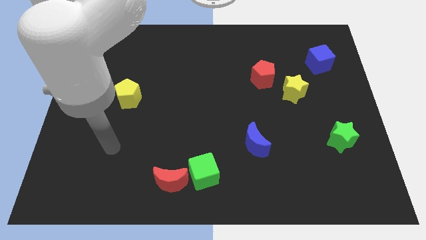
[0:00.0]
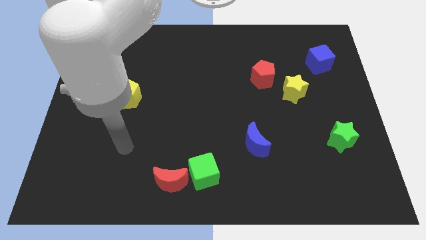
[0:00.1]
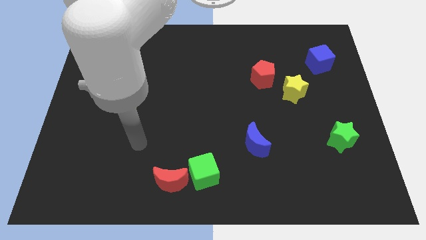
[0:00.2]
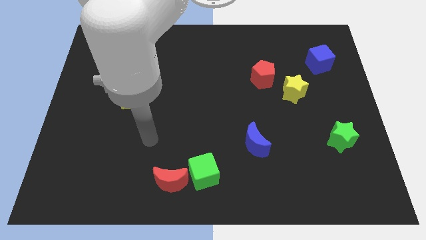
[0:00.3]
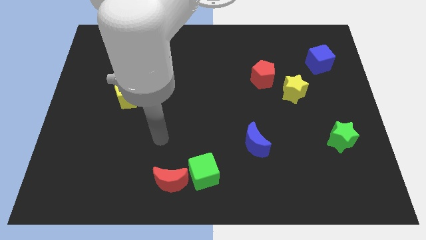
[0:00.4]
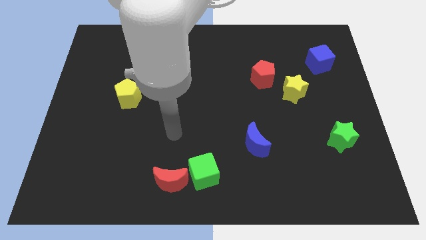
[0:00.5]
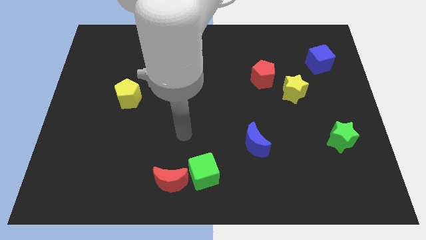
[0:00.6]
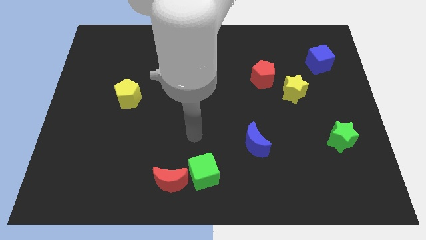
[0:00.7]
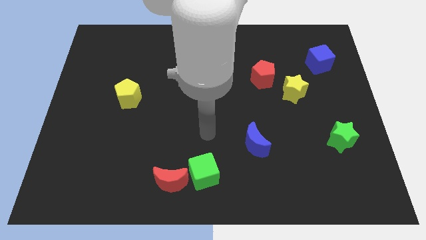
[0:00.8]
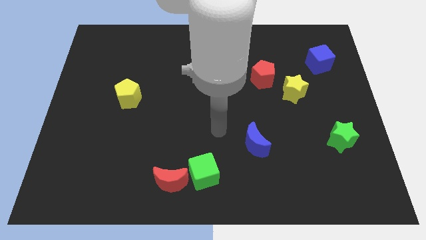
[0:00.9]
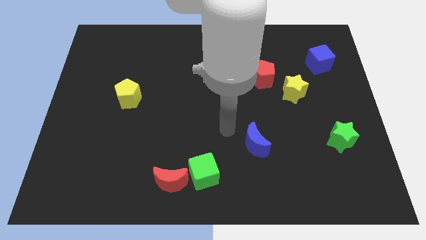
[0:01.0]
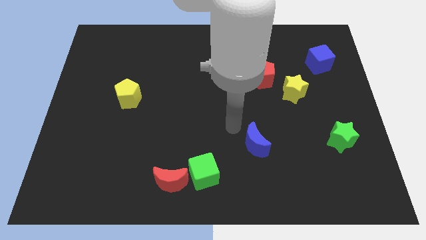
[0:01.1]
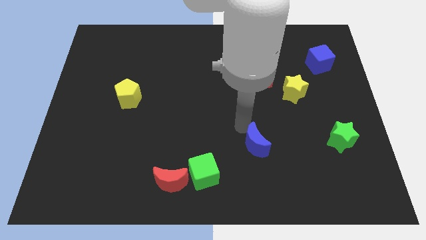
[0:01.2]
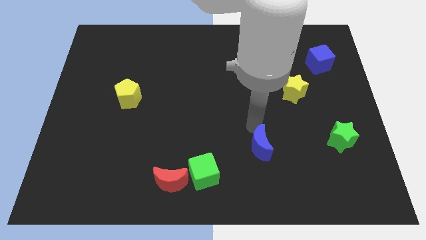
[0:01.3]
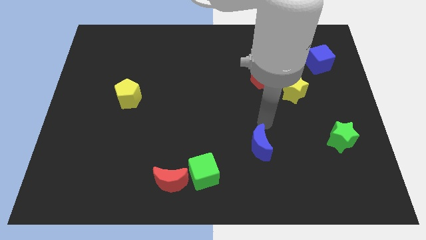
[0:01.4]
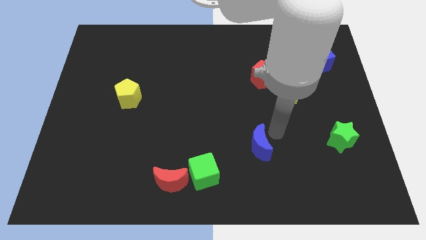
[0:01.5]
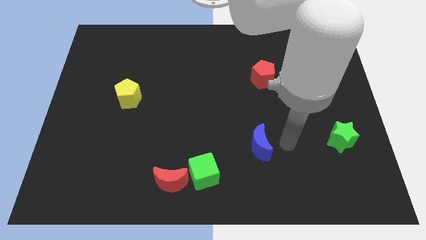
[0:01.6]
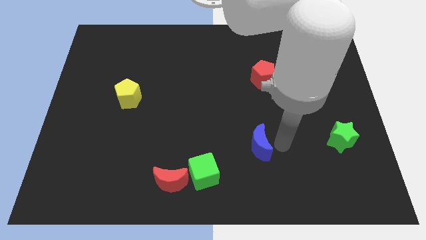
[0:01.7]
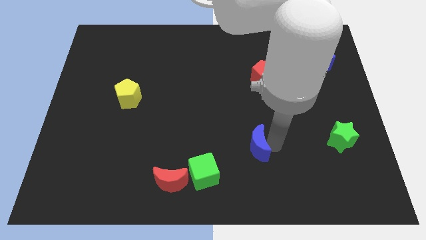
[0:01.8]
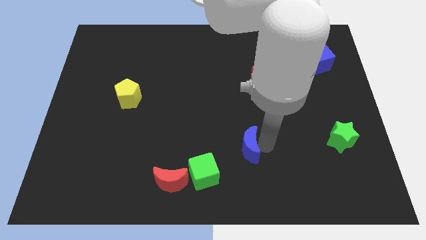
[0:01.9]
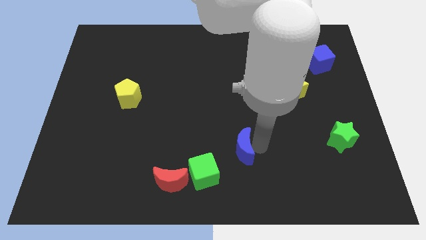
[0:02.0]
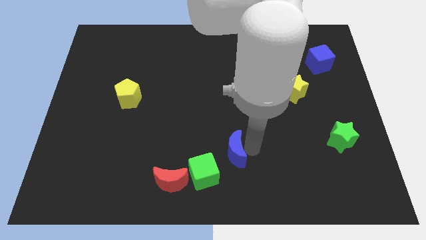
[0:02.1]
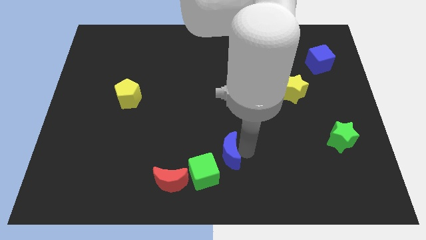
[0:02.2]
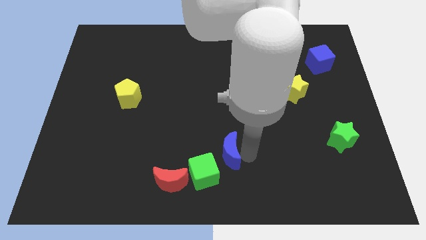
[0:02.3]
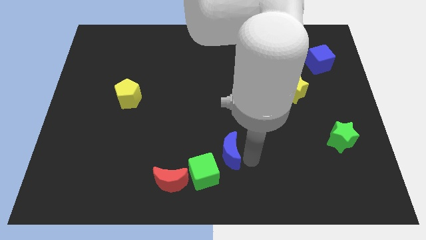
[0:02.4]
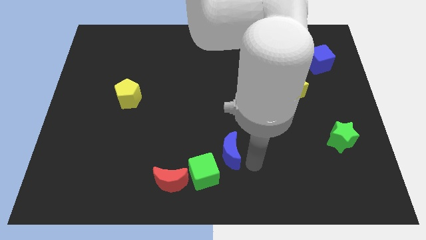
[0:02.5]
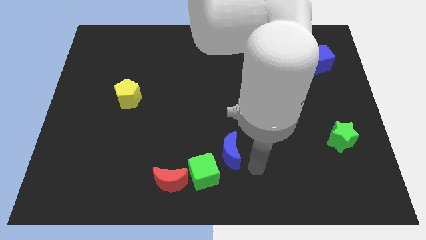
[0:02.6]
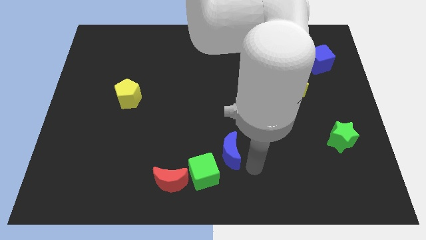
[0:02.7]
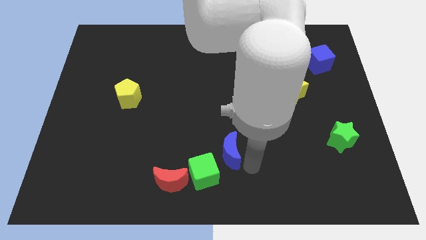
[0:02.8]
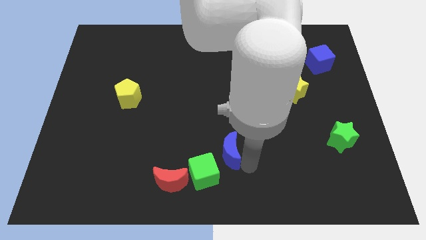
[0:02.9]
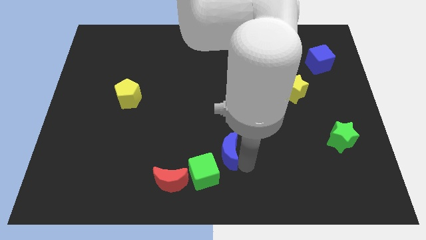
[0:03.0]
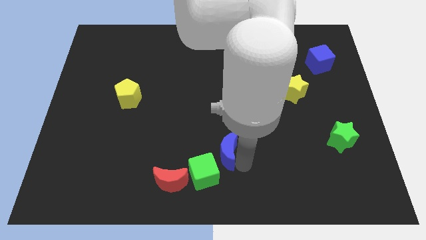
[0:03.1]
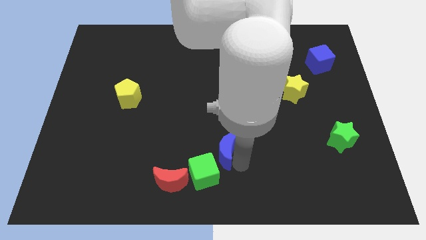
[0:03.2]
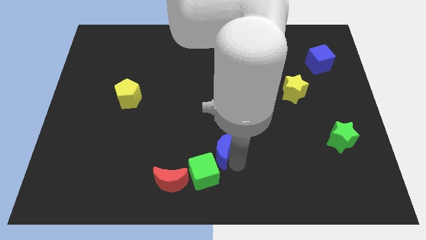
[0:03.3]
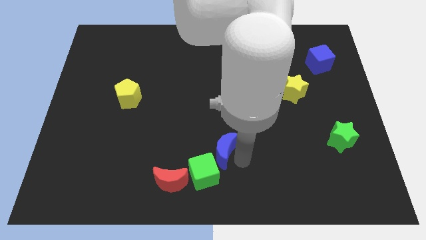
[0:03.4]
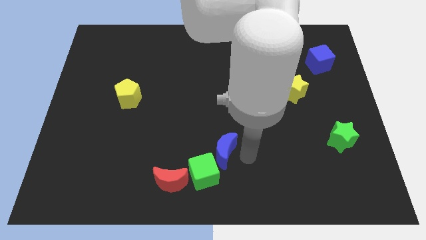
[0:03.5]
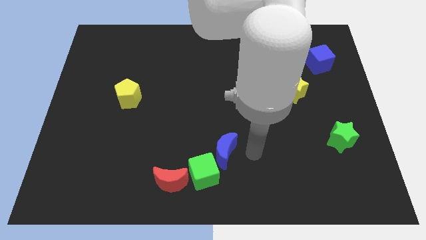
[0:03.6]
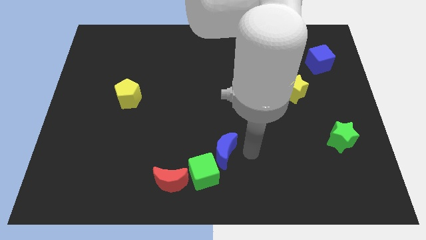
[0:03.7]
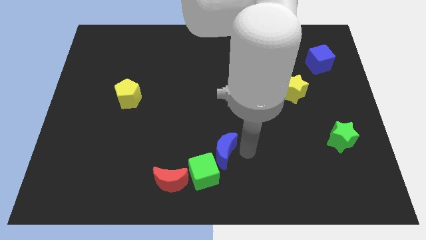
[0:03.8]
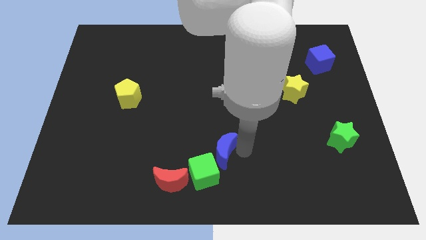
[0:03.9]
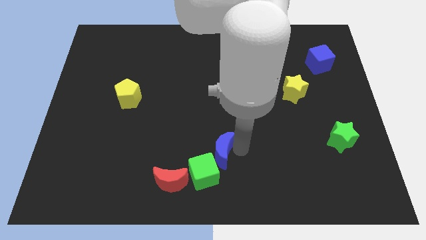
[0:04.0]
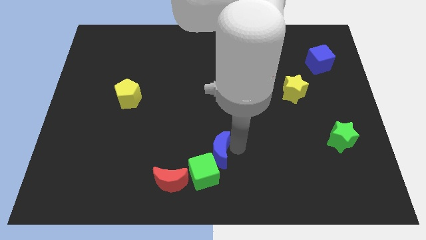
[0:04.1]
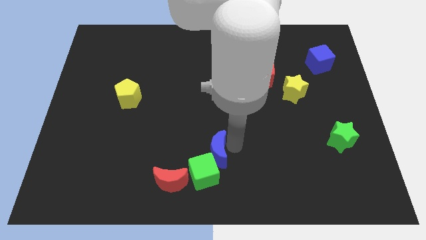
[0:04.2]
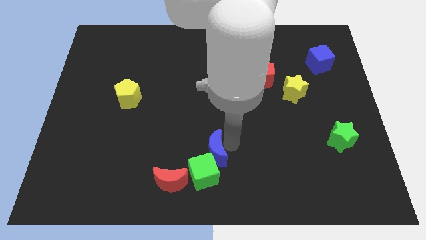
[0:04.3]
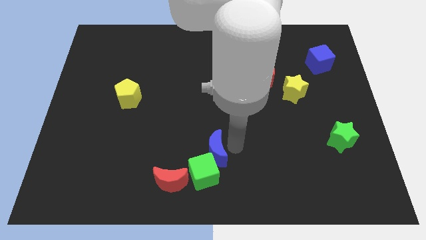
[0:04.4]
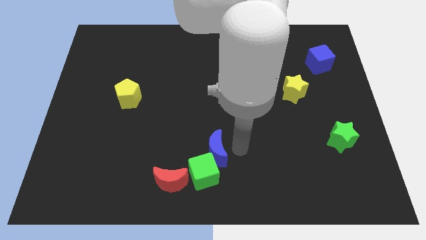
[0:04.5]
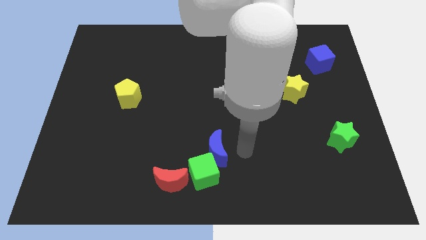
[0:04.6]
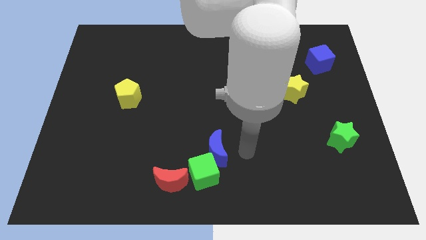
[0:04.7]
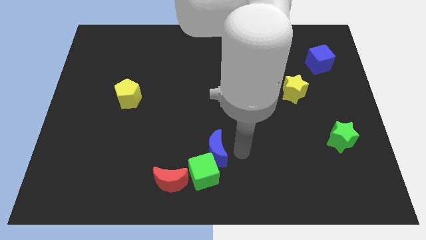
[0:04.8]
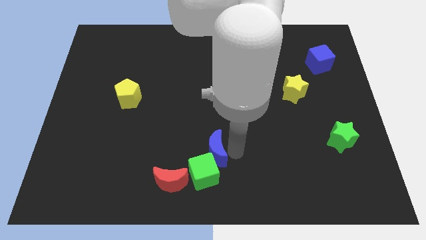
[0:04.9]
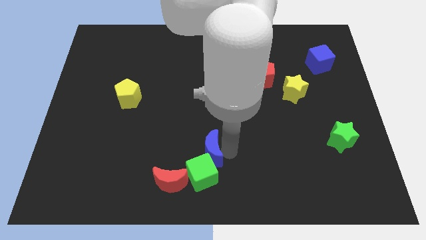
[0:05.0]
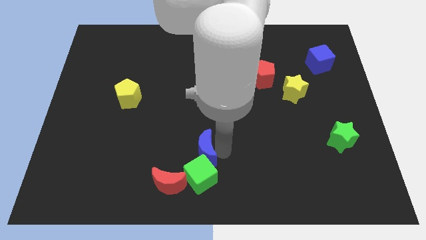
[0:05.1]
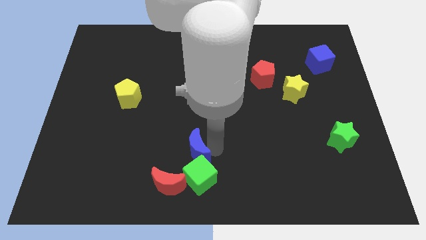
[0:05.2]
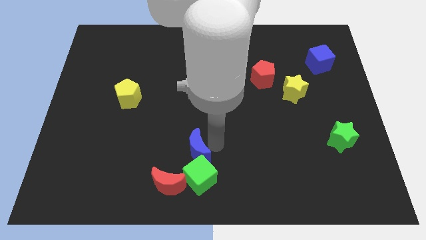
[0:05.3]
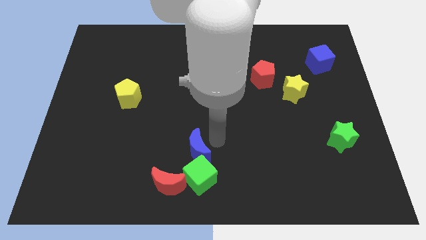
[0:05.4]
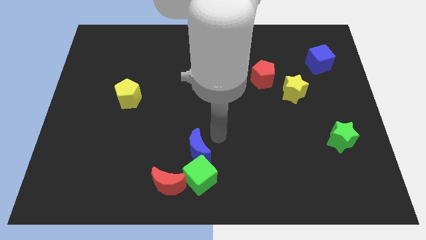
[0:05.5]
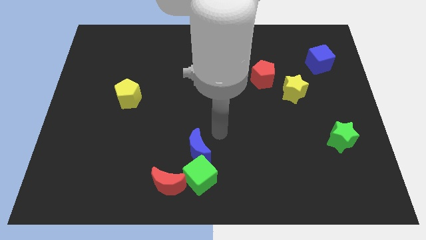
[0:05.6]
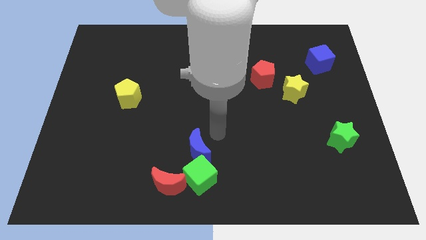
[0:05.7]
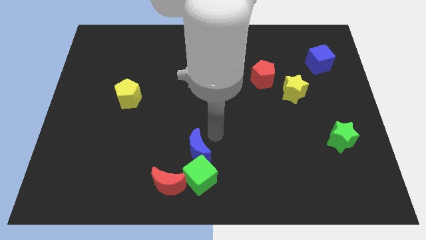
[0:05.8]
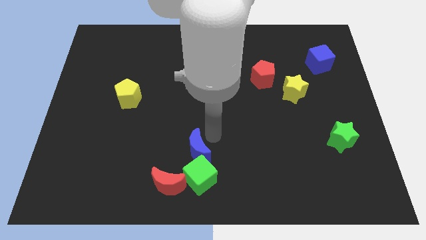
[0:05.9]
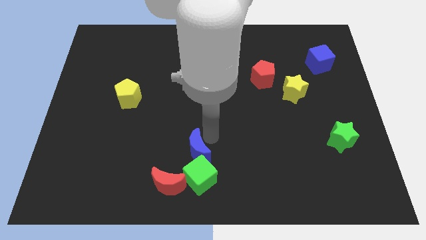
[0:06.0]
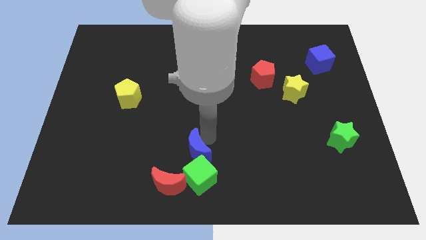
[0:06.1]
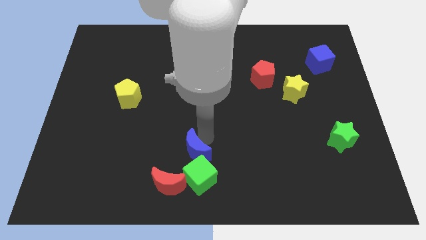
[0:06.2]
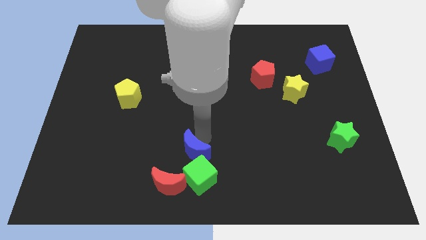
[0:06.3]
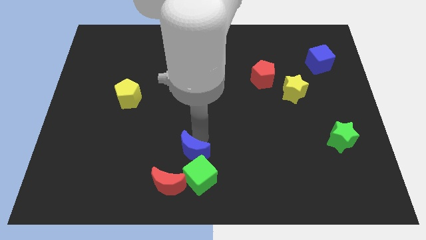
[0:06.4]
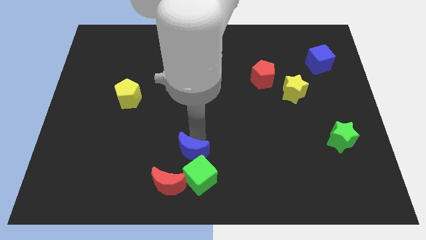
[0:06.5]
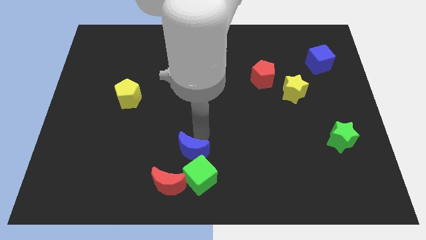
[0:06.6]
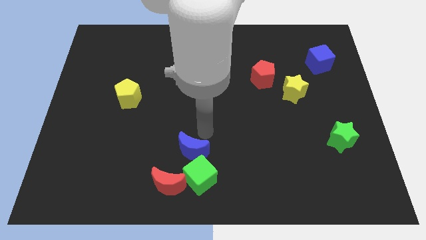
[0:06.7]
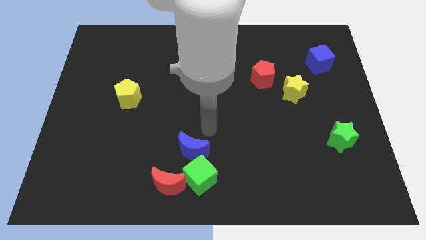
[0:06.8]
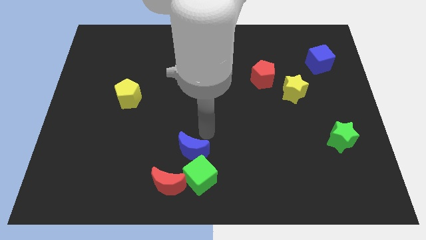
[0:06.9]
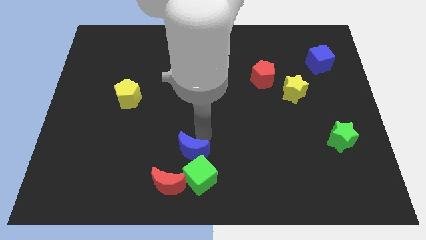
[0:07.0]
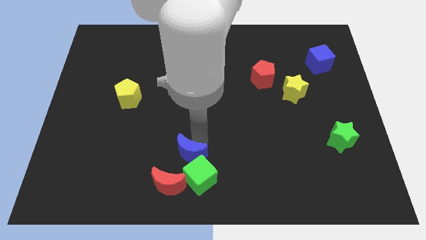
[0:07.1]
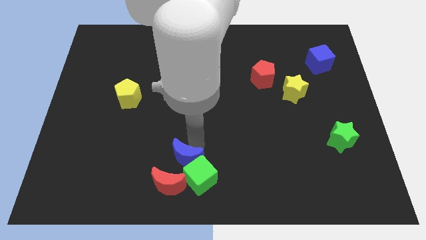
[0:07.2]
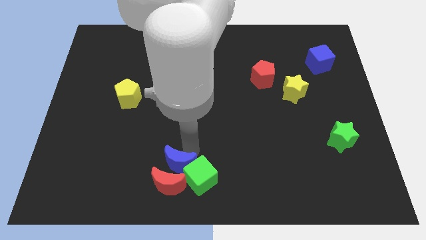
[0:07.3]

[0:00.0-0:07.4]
push the blue moon to the red moon
